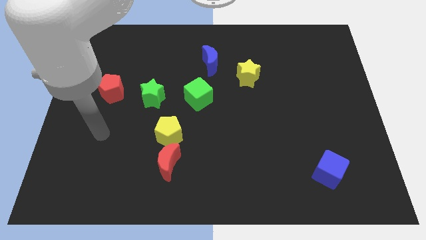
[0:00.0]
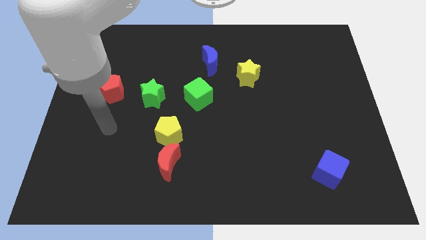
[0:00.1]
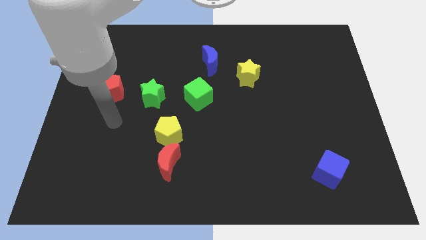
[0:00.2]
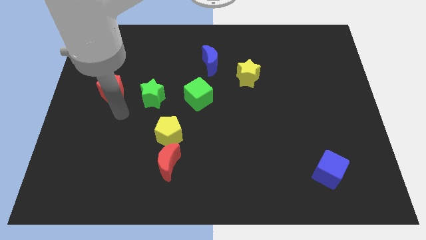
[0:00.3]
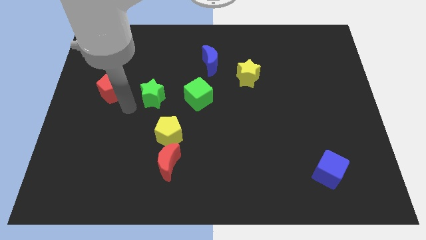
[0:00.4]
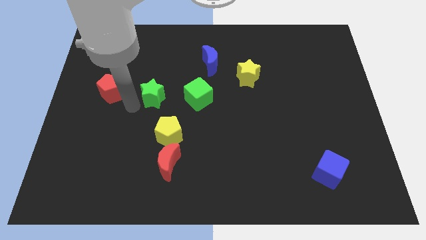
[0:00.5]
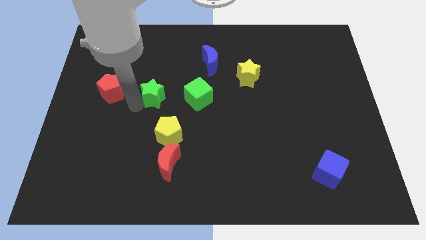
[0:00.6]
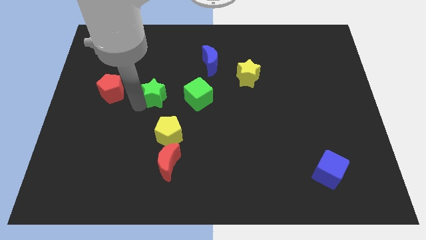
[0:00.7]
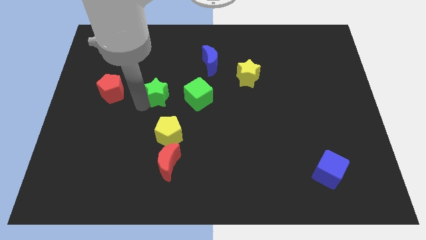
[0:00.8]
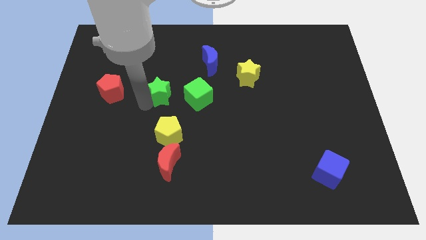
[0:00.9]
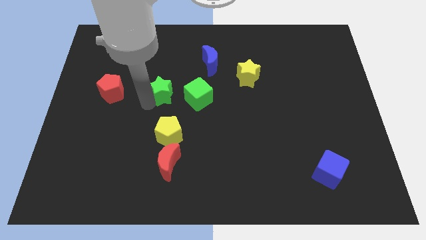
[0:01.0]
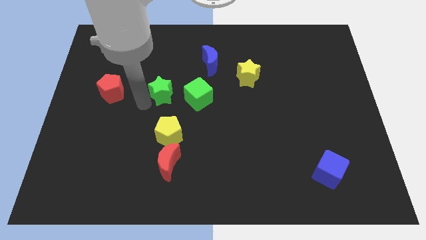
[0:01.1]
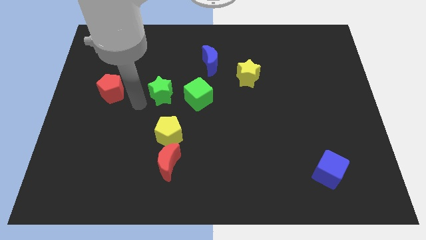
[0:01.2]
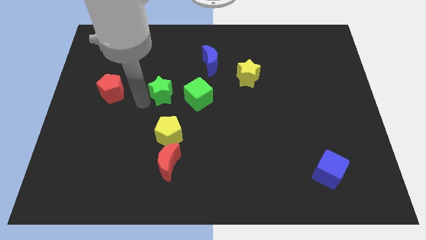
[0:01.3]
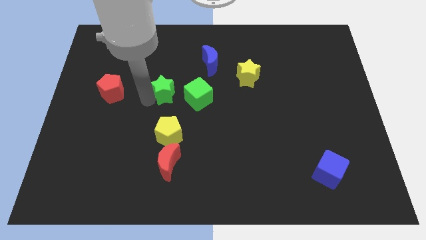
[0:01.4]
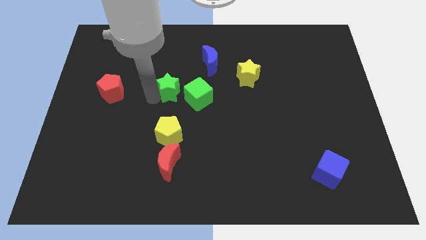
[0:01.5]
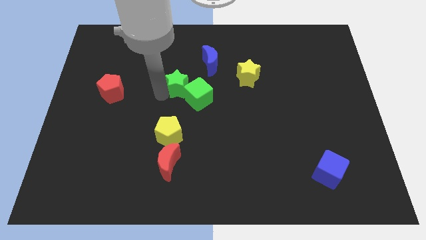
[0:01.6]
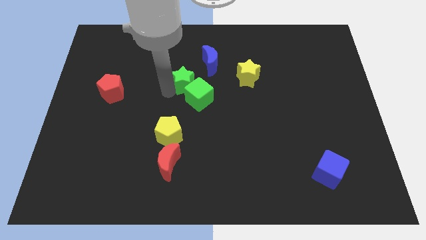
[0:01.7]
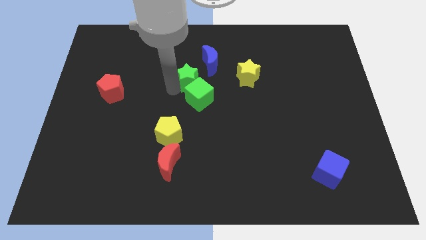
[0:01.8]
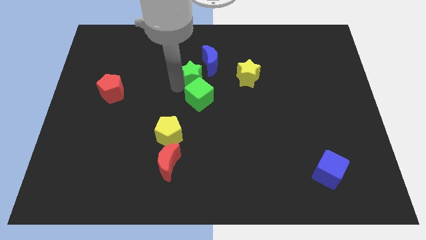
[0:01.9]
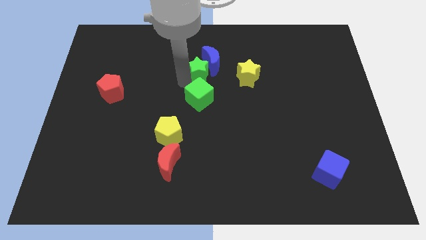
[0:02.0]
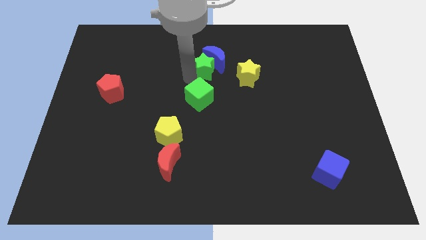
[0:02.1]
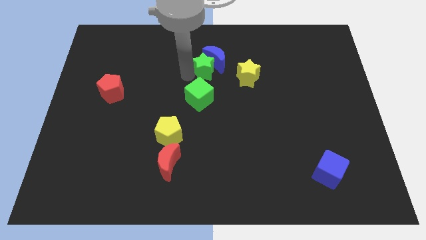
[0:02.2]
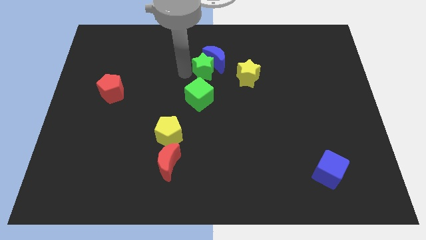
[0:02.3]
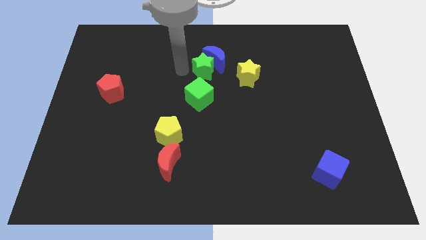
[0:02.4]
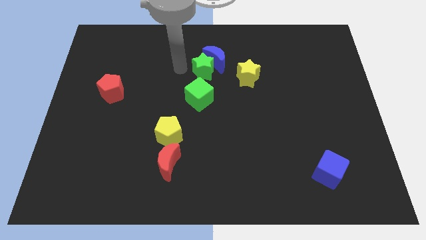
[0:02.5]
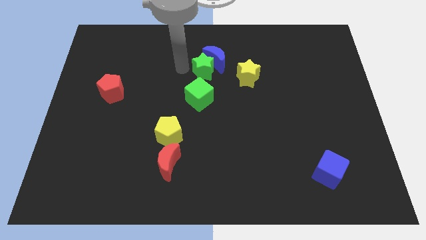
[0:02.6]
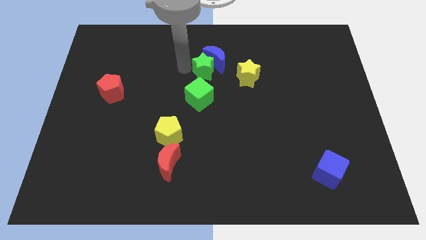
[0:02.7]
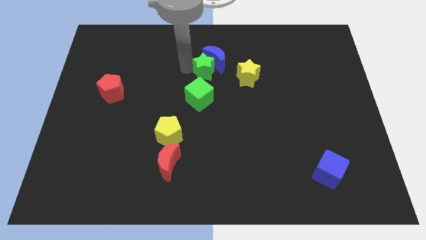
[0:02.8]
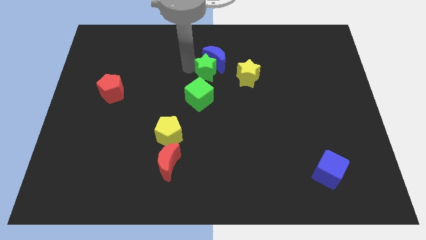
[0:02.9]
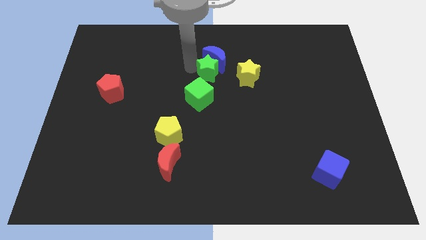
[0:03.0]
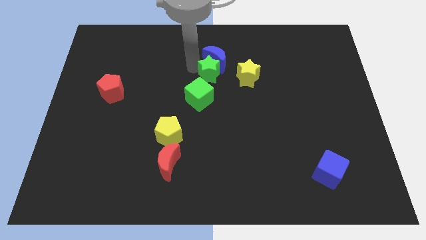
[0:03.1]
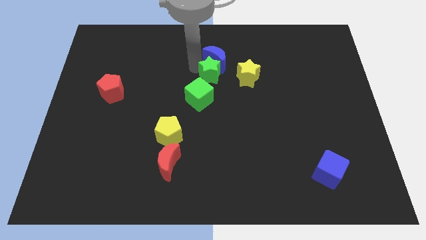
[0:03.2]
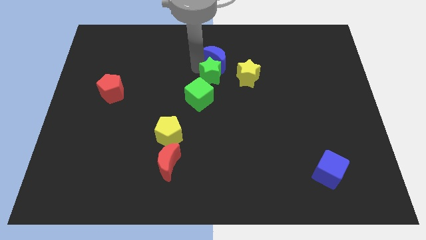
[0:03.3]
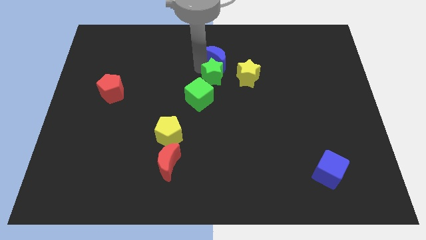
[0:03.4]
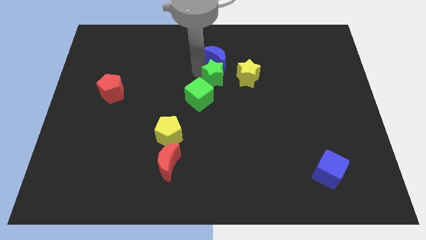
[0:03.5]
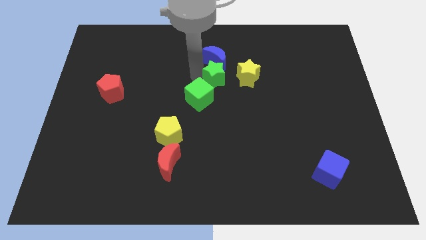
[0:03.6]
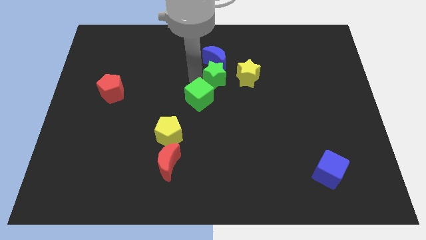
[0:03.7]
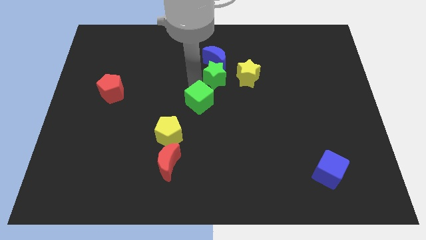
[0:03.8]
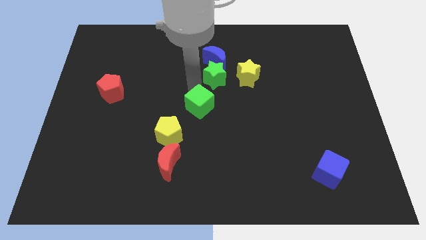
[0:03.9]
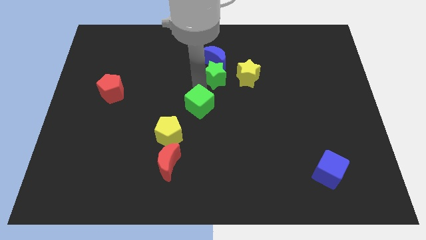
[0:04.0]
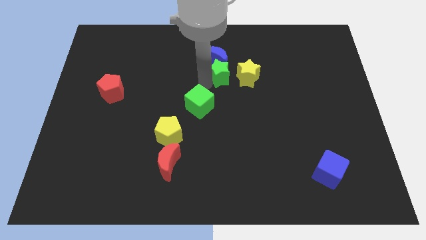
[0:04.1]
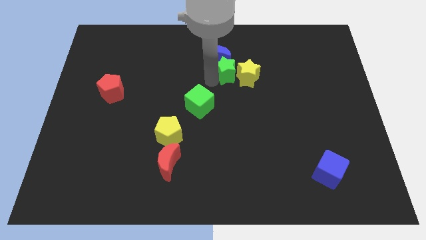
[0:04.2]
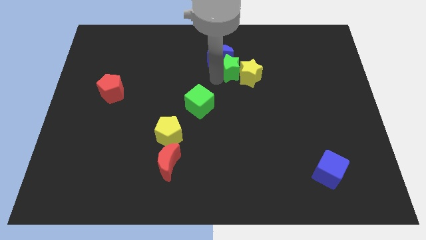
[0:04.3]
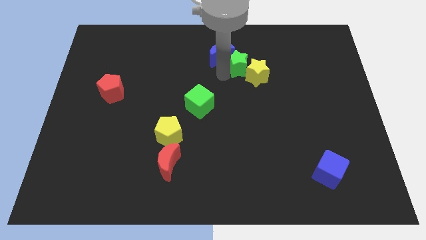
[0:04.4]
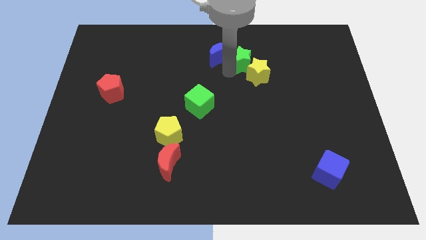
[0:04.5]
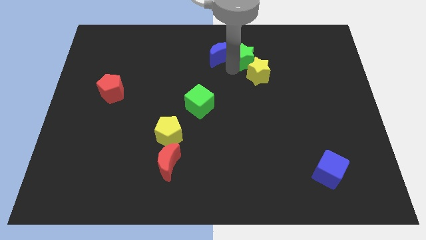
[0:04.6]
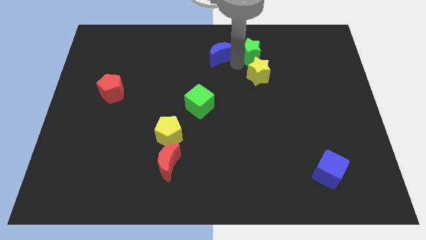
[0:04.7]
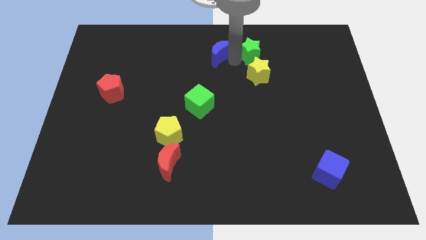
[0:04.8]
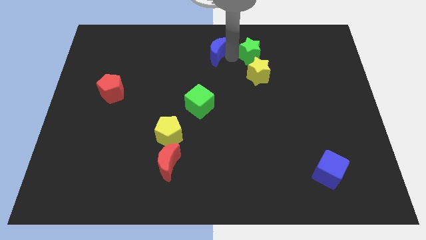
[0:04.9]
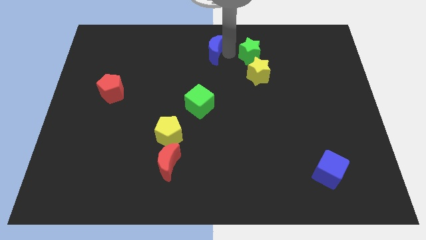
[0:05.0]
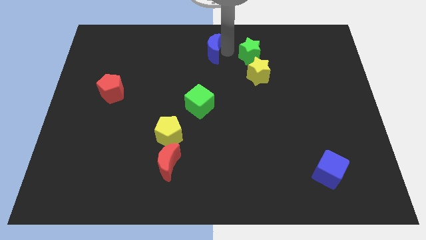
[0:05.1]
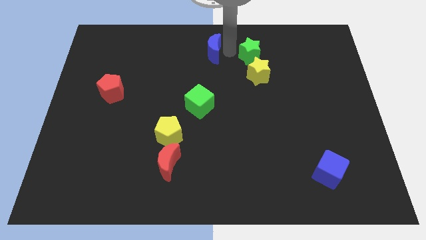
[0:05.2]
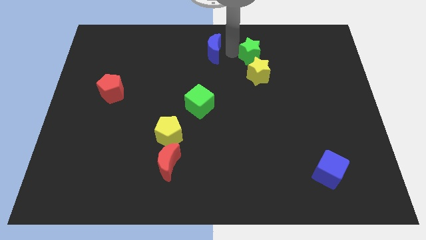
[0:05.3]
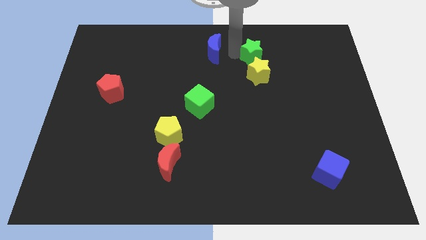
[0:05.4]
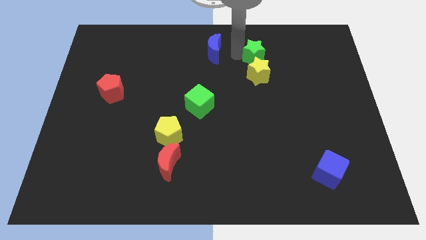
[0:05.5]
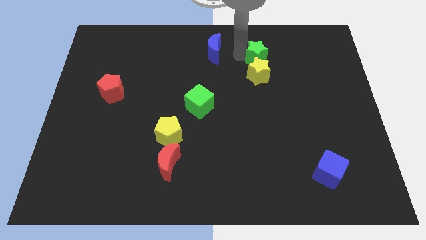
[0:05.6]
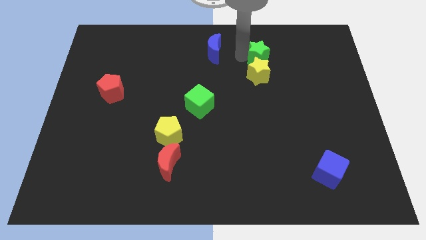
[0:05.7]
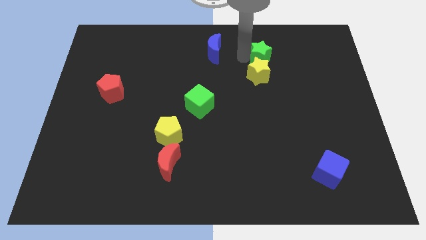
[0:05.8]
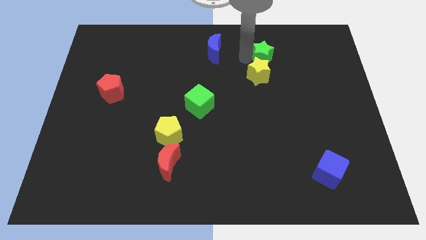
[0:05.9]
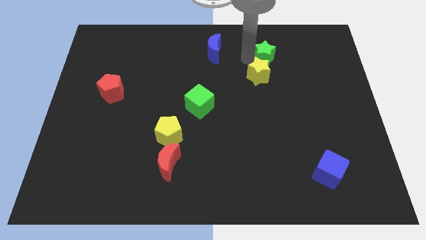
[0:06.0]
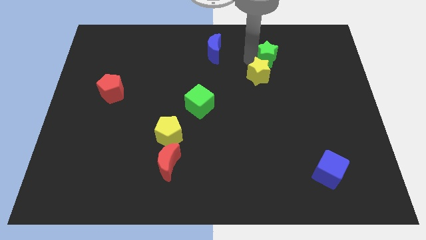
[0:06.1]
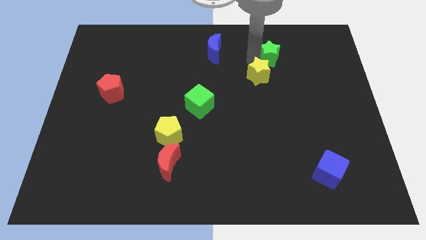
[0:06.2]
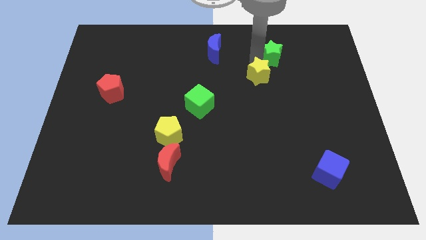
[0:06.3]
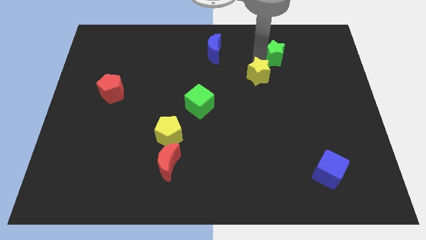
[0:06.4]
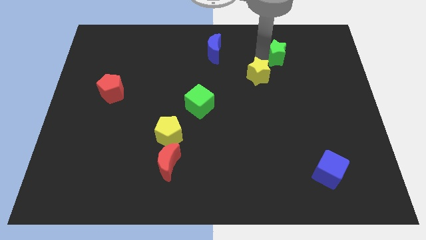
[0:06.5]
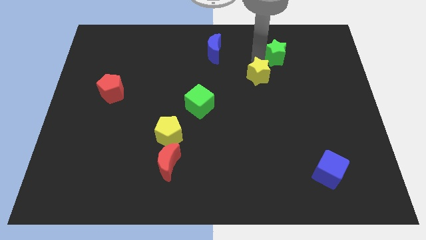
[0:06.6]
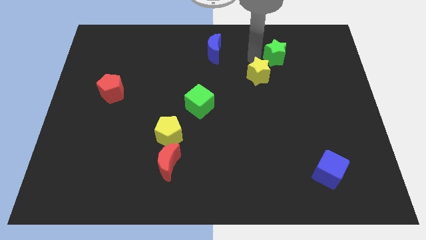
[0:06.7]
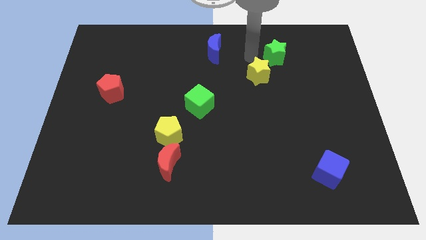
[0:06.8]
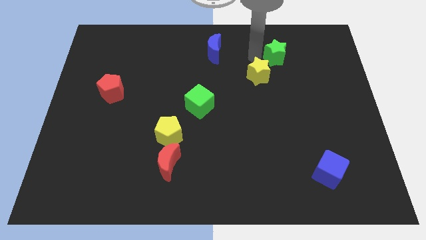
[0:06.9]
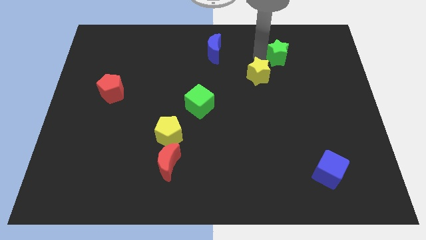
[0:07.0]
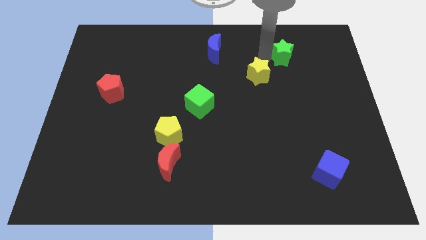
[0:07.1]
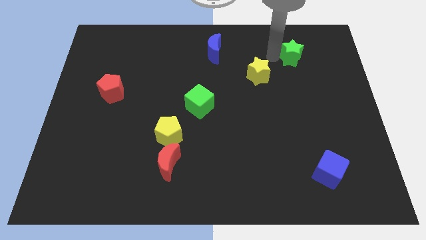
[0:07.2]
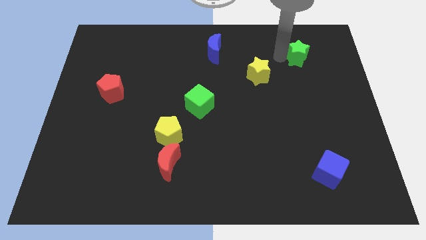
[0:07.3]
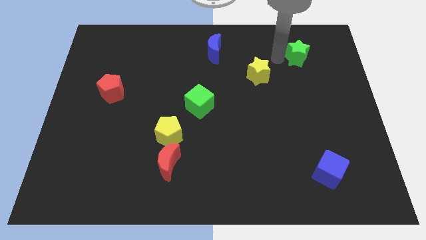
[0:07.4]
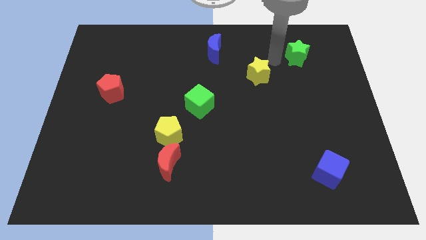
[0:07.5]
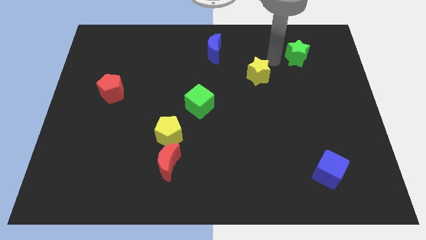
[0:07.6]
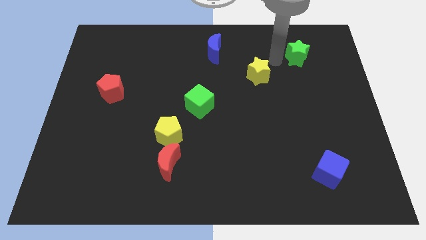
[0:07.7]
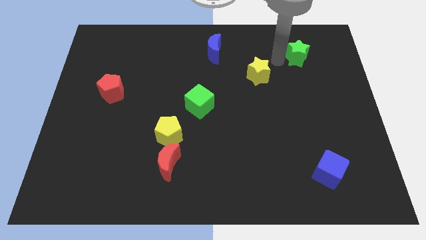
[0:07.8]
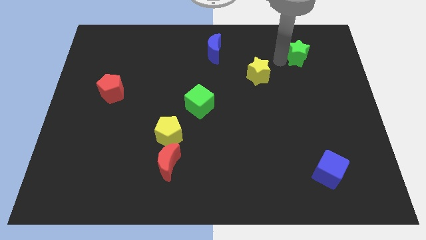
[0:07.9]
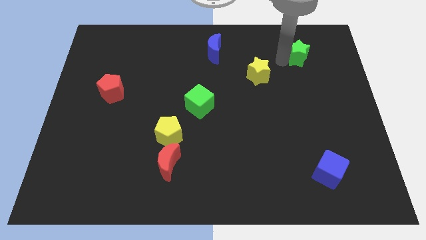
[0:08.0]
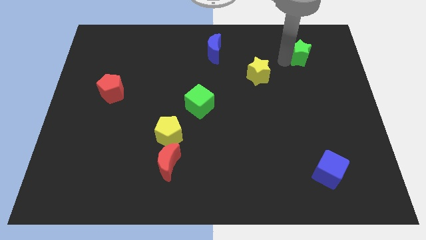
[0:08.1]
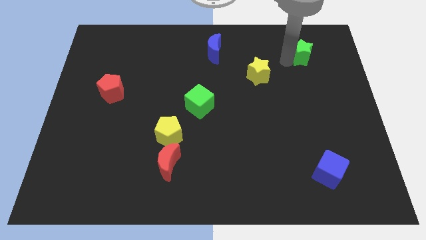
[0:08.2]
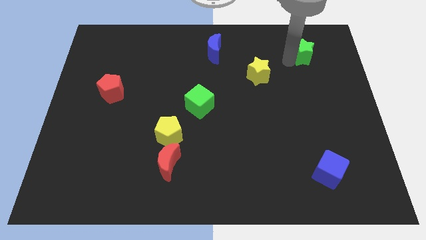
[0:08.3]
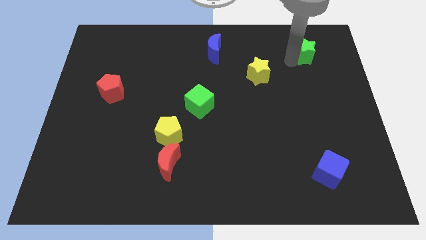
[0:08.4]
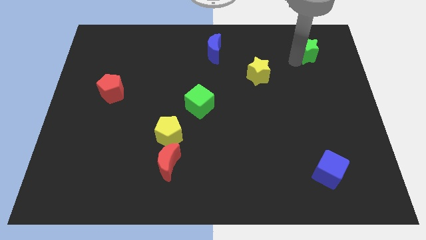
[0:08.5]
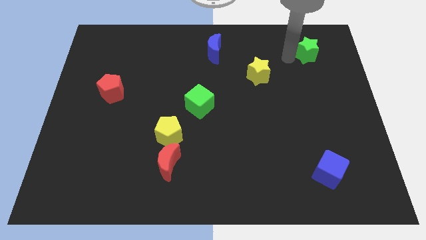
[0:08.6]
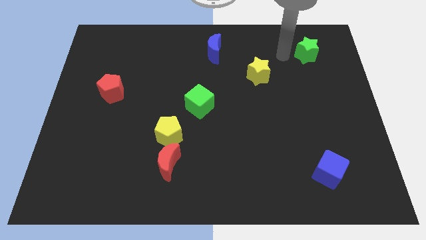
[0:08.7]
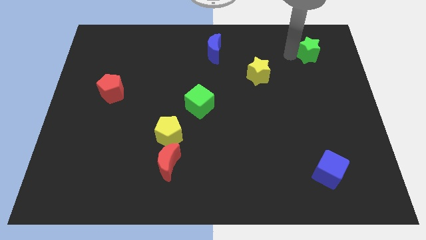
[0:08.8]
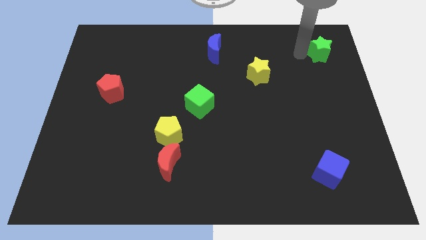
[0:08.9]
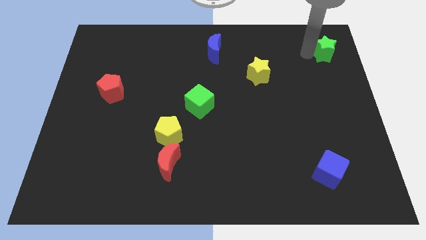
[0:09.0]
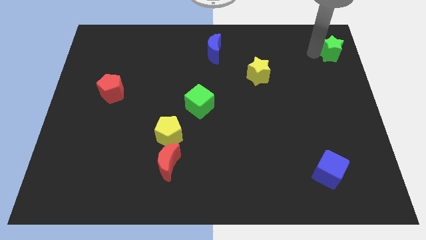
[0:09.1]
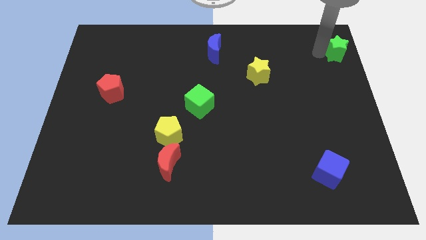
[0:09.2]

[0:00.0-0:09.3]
put the green star to the top right corner
